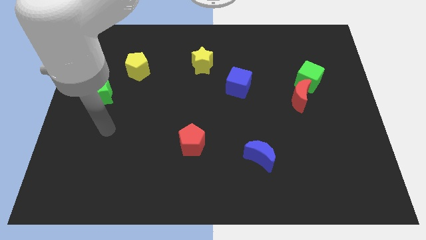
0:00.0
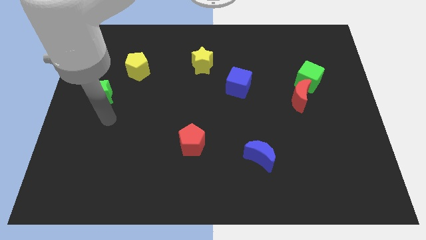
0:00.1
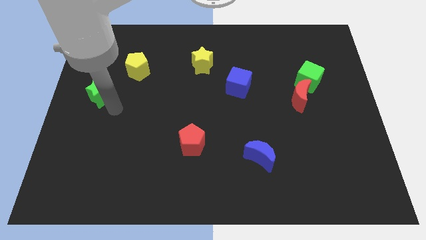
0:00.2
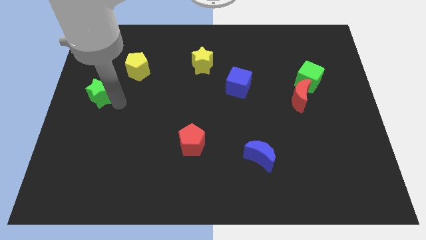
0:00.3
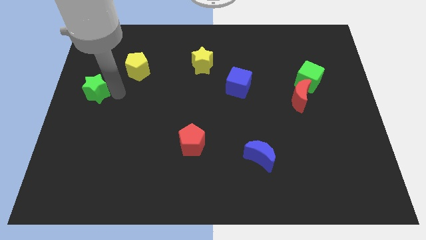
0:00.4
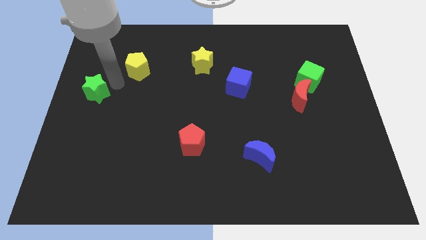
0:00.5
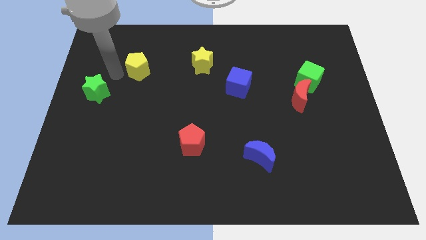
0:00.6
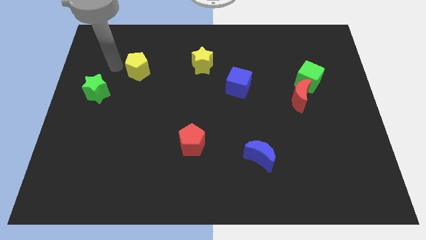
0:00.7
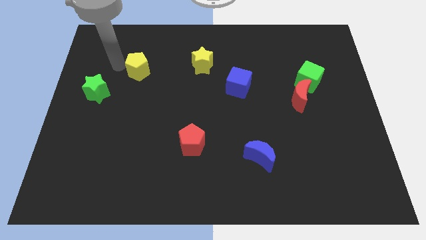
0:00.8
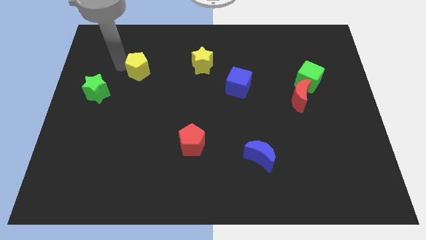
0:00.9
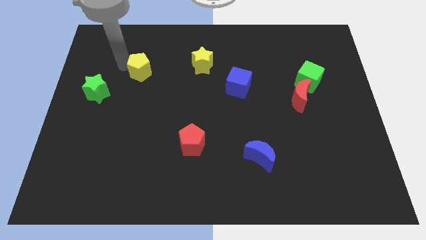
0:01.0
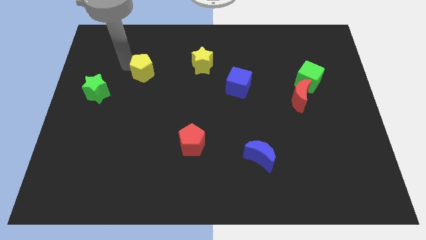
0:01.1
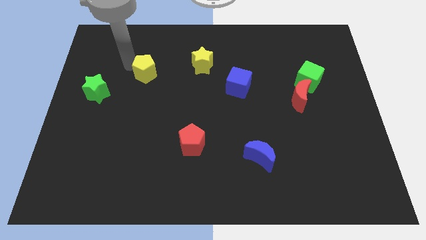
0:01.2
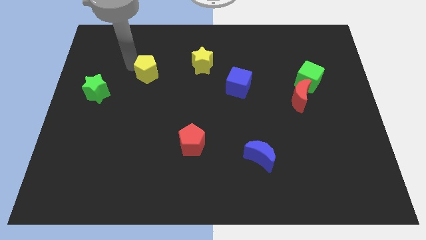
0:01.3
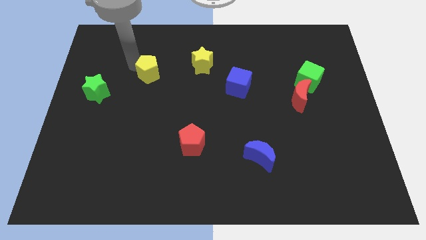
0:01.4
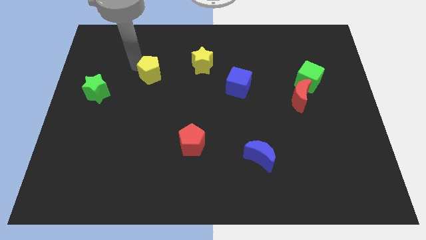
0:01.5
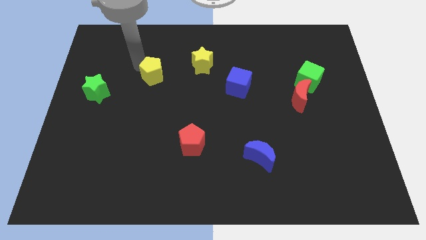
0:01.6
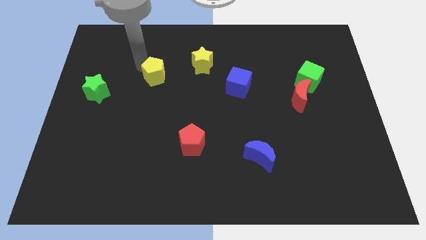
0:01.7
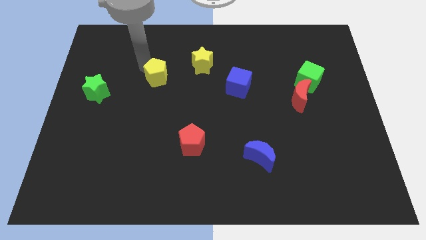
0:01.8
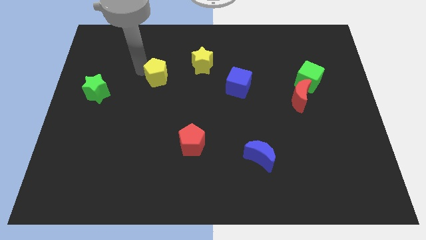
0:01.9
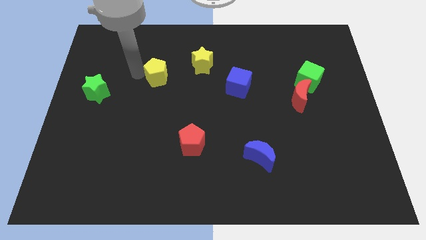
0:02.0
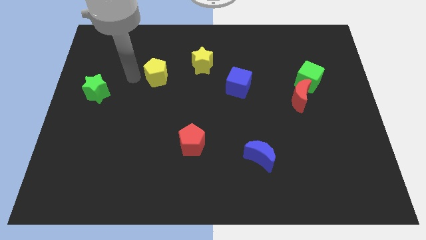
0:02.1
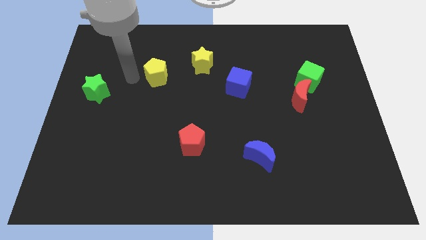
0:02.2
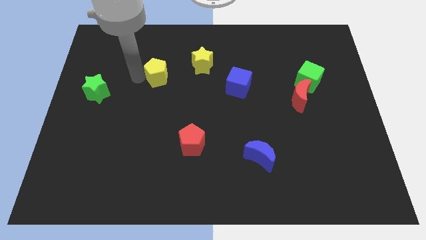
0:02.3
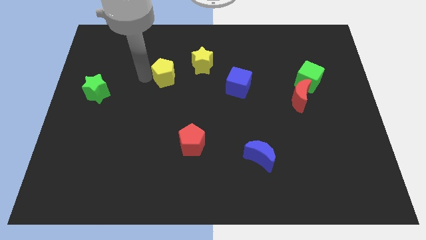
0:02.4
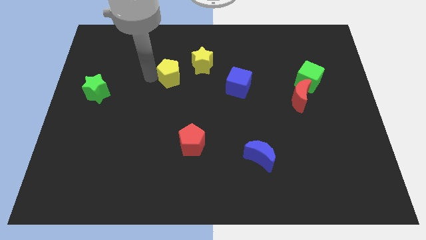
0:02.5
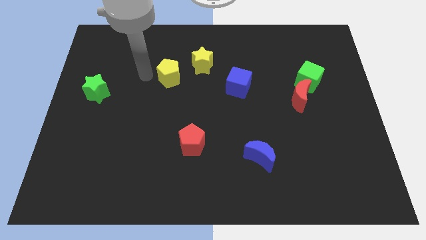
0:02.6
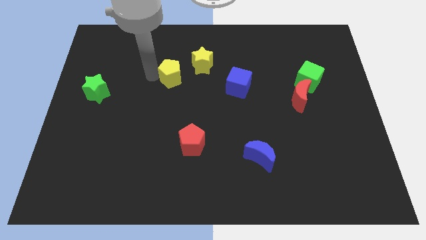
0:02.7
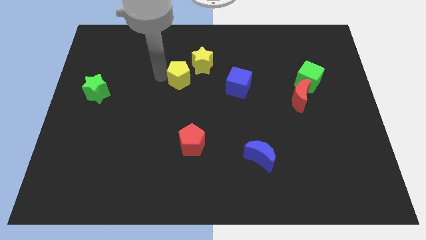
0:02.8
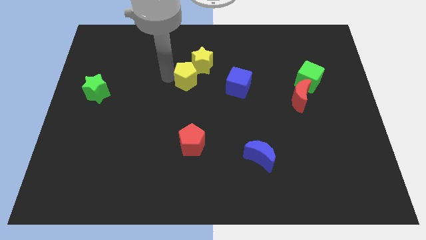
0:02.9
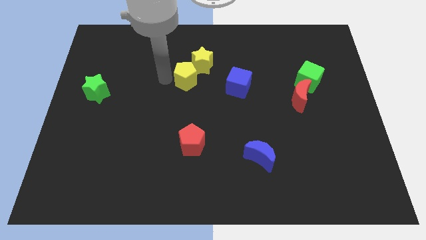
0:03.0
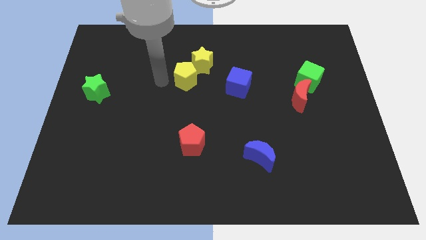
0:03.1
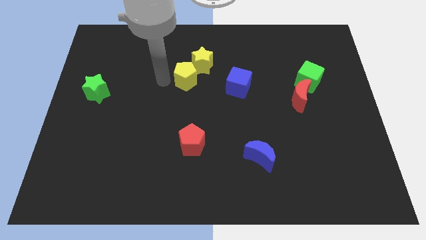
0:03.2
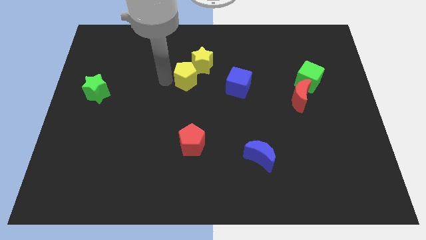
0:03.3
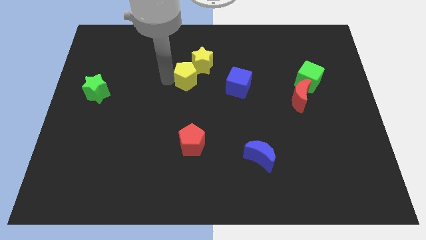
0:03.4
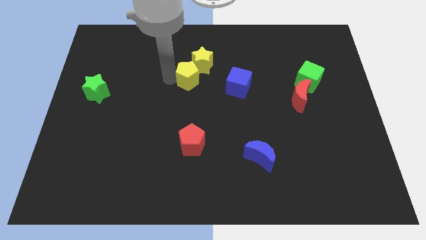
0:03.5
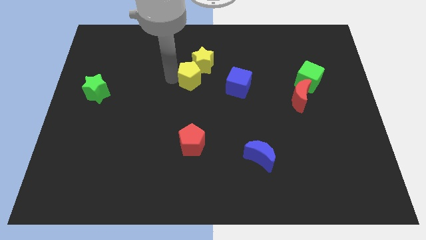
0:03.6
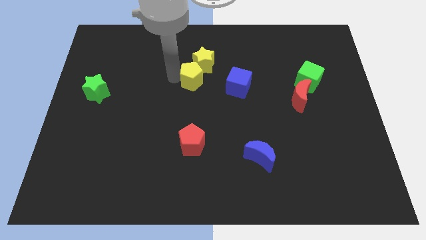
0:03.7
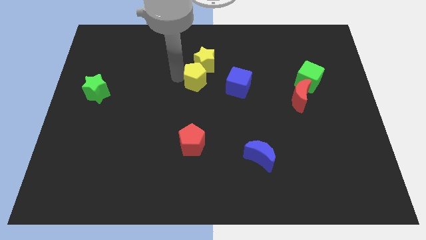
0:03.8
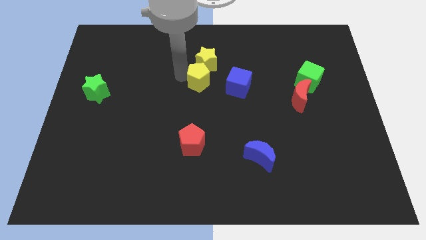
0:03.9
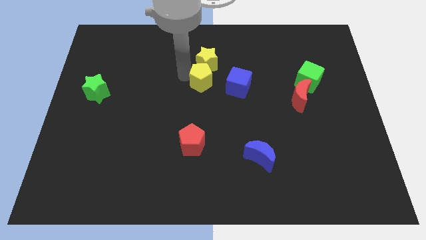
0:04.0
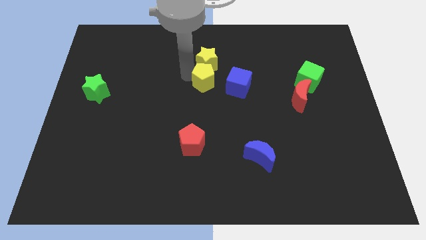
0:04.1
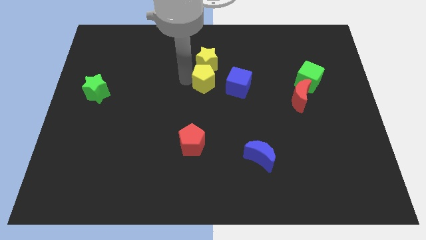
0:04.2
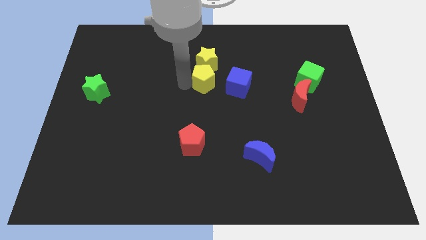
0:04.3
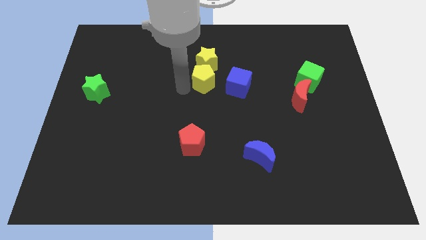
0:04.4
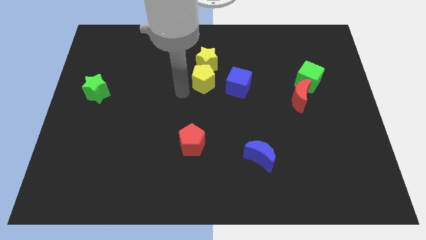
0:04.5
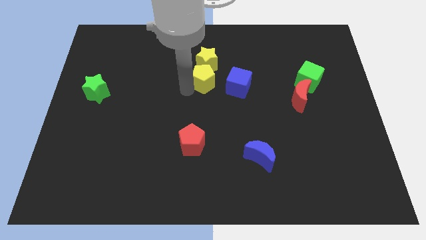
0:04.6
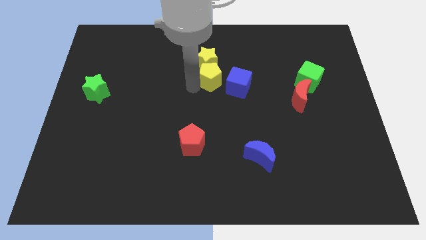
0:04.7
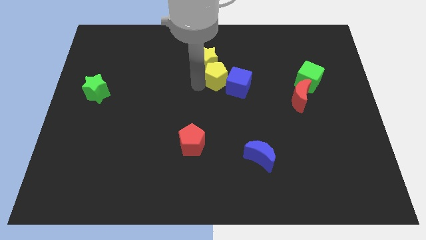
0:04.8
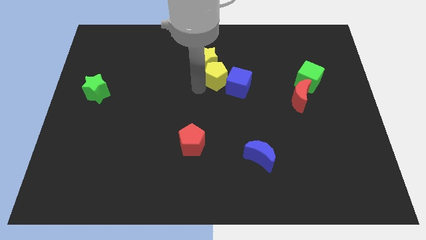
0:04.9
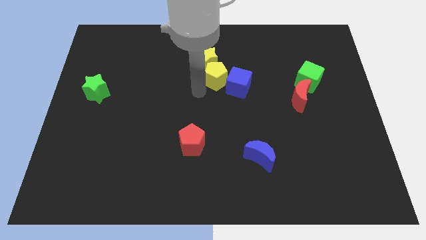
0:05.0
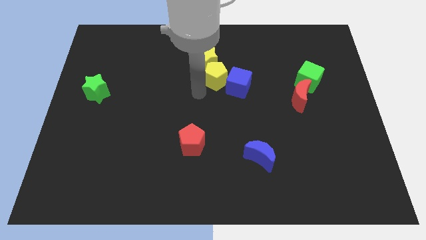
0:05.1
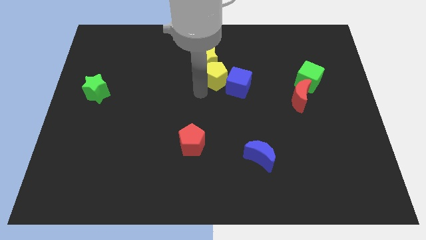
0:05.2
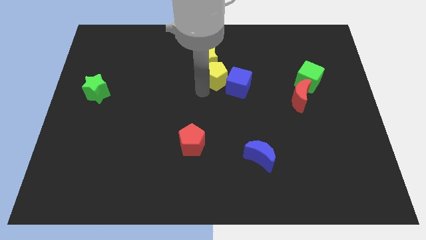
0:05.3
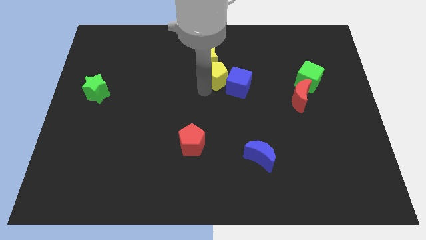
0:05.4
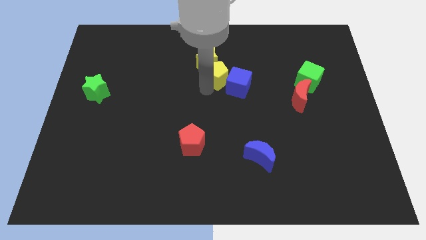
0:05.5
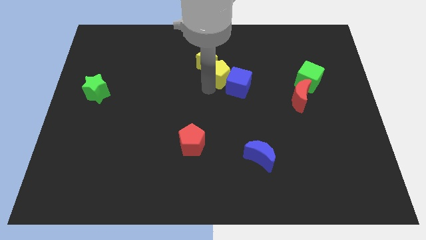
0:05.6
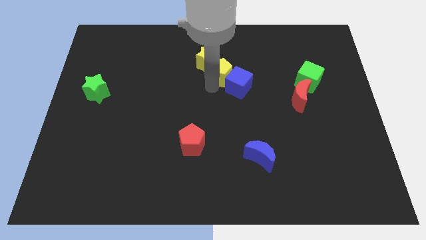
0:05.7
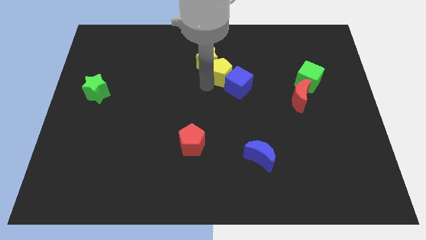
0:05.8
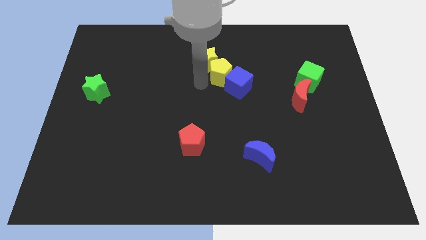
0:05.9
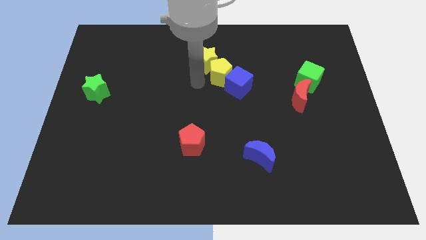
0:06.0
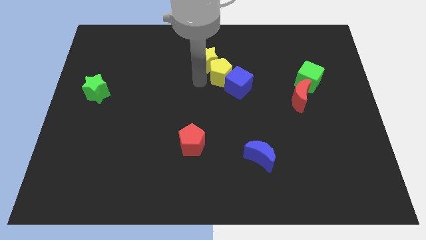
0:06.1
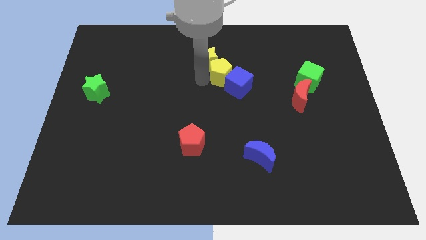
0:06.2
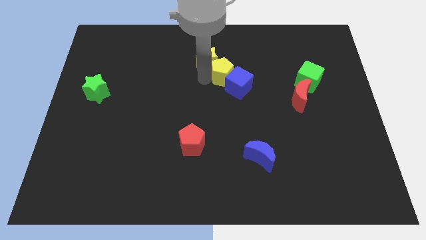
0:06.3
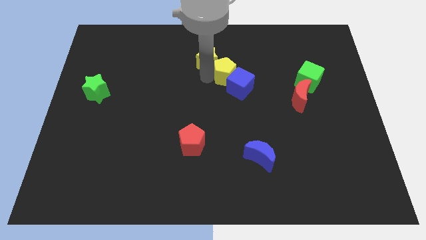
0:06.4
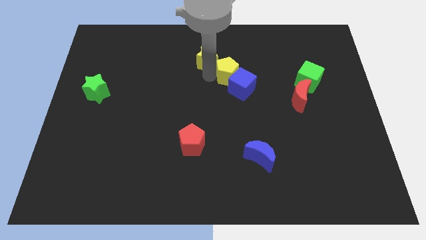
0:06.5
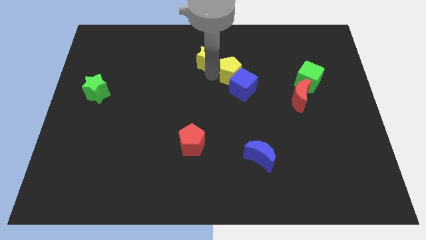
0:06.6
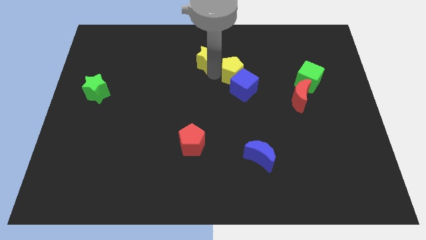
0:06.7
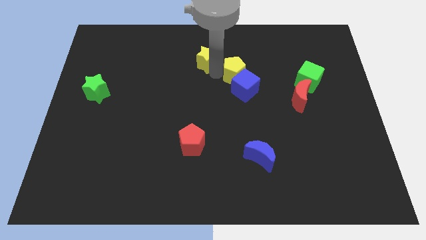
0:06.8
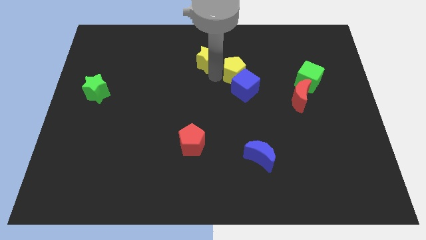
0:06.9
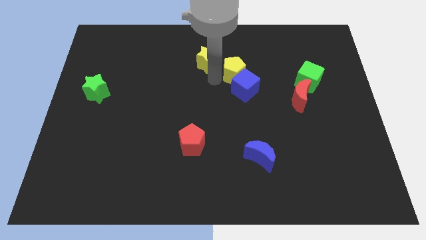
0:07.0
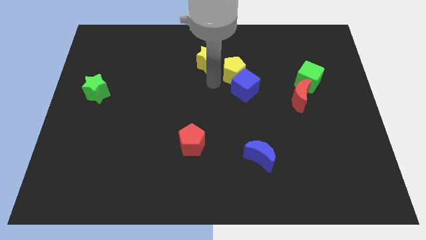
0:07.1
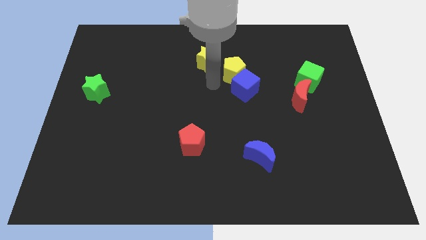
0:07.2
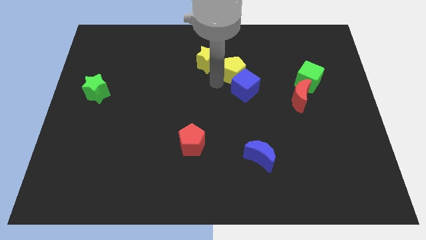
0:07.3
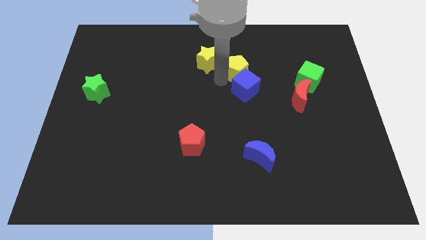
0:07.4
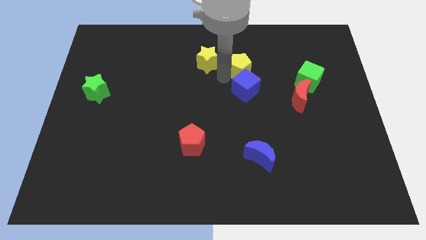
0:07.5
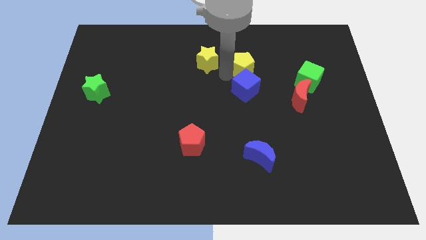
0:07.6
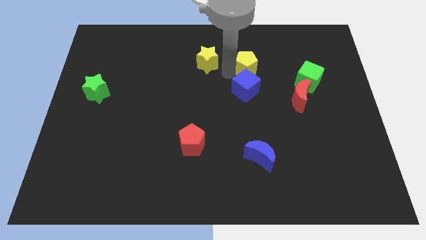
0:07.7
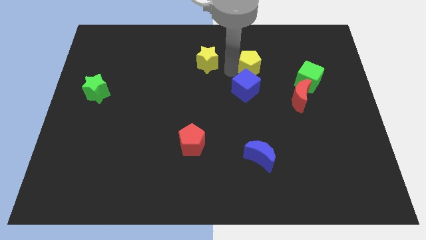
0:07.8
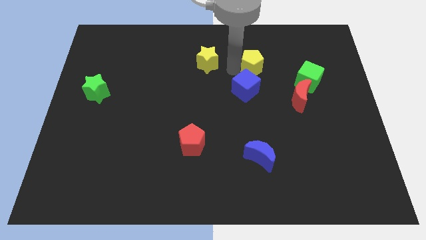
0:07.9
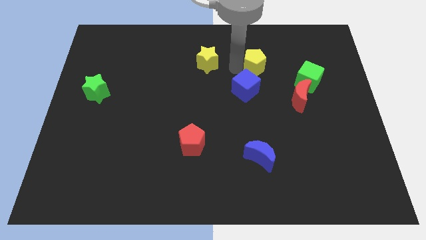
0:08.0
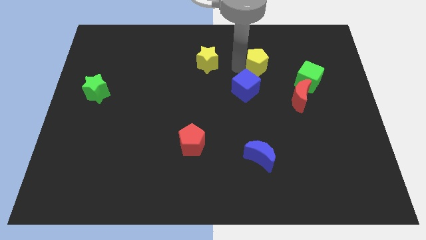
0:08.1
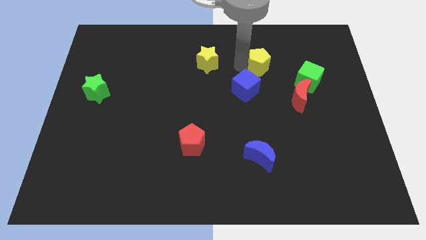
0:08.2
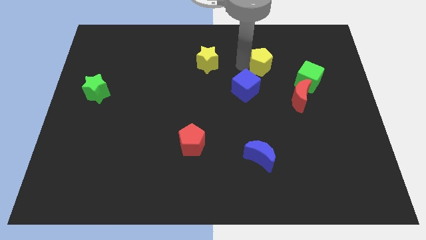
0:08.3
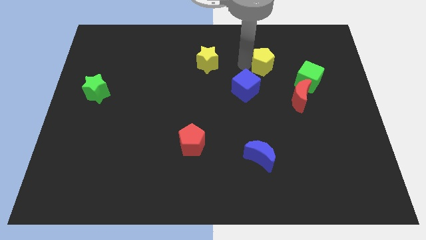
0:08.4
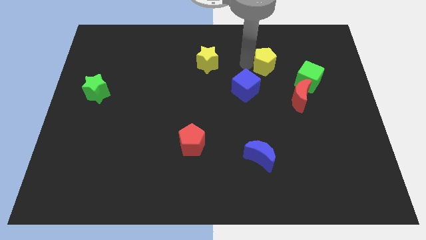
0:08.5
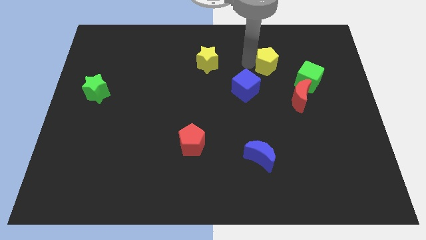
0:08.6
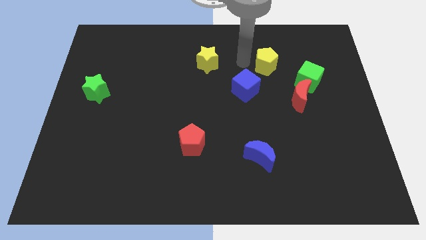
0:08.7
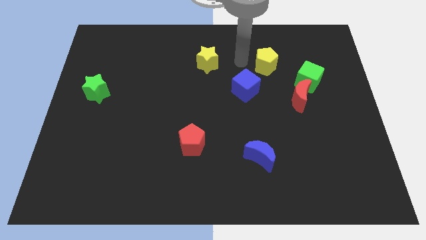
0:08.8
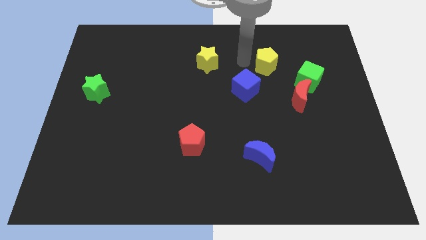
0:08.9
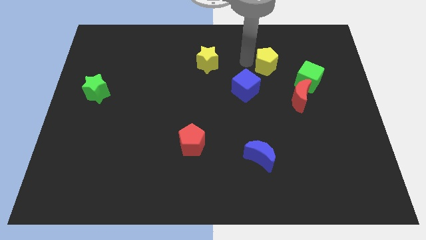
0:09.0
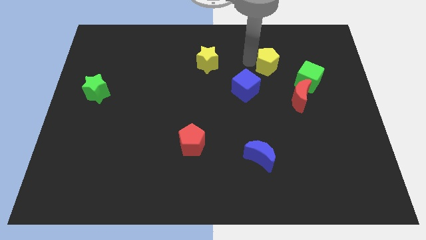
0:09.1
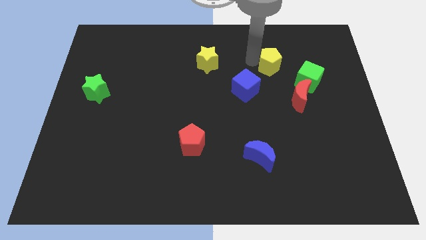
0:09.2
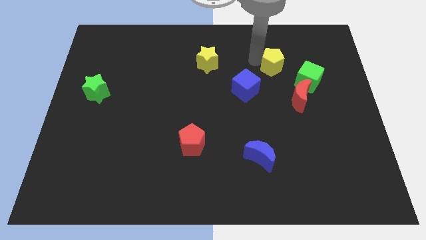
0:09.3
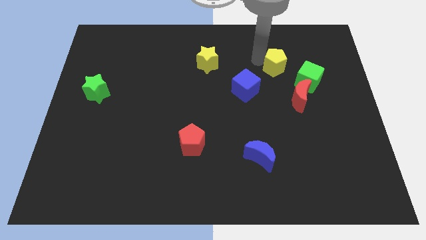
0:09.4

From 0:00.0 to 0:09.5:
push the yellow pentagon above the red moon
